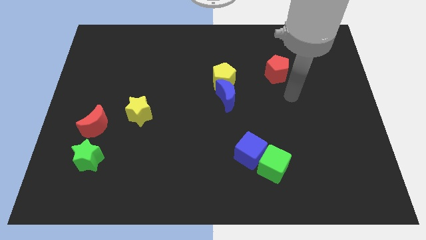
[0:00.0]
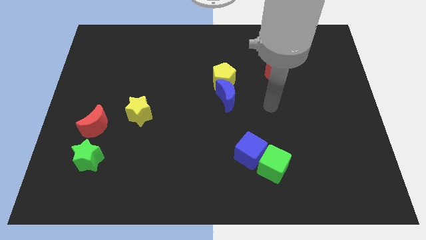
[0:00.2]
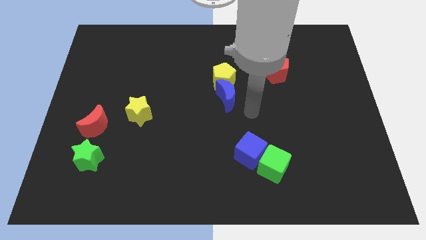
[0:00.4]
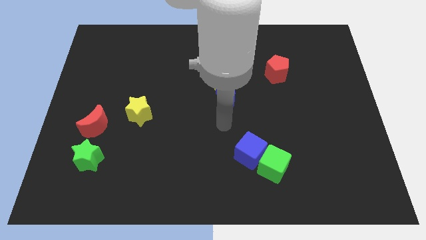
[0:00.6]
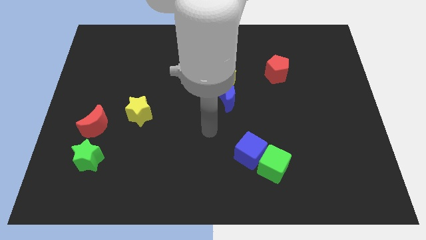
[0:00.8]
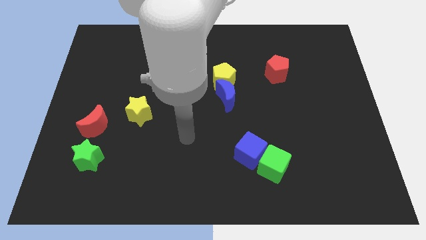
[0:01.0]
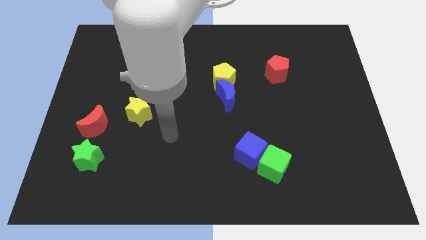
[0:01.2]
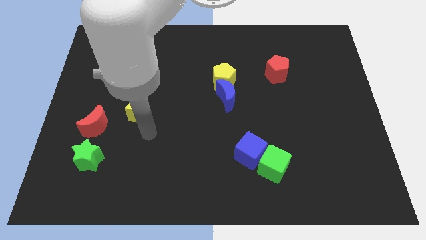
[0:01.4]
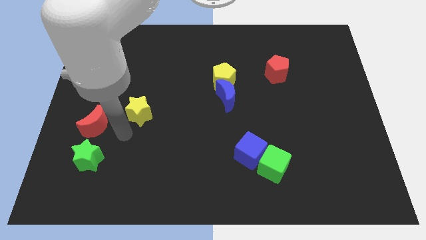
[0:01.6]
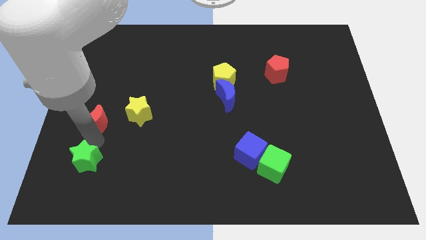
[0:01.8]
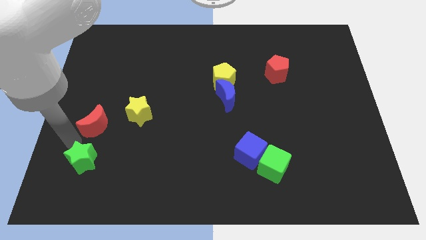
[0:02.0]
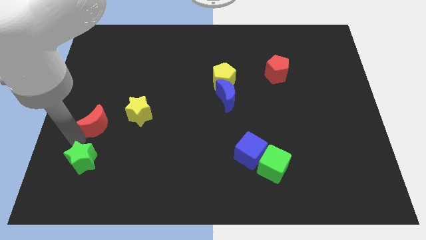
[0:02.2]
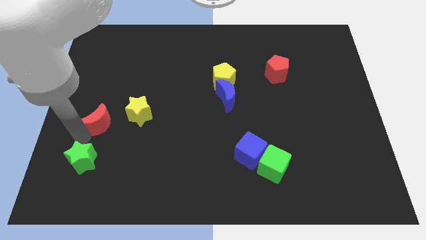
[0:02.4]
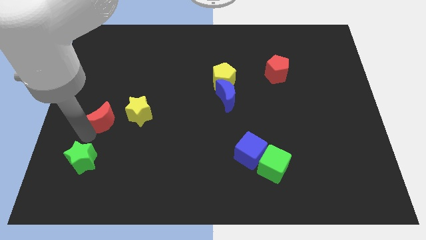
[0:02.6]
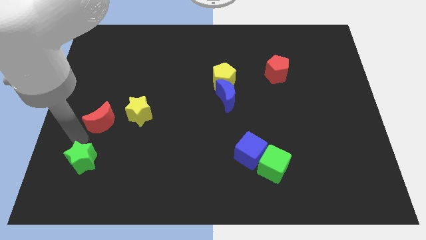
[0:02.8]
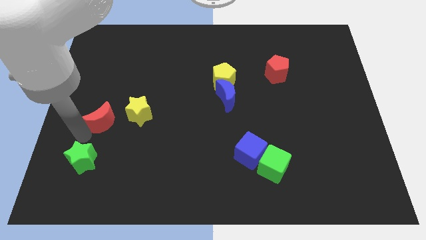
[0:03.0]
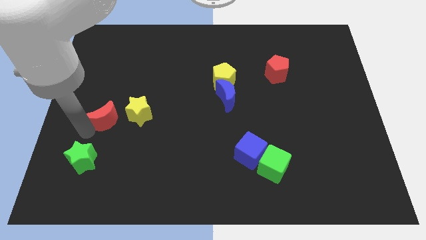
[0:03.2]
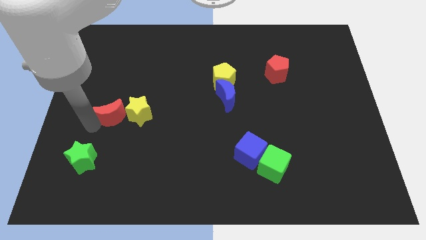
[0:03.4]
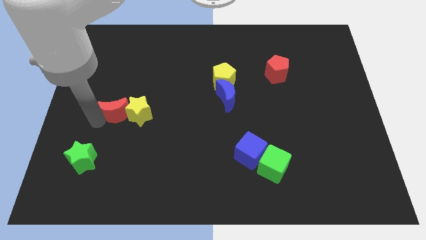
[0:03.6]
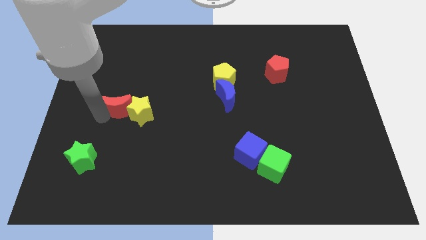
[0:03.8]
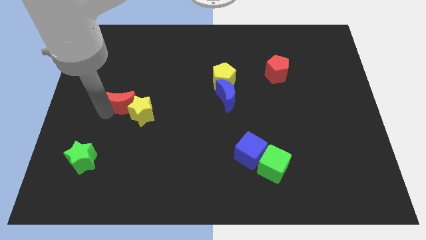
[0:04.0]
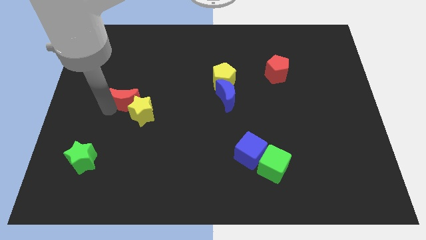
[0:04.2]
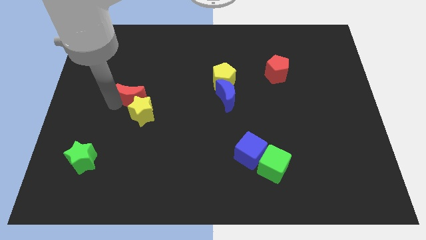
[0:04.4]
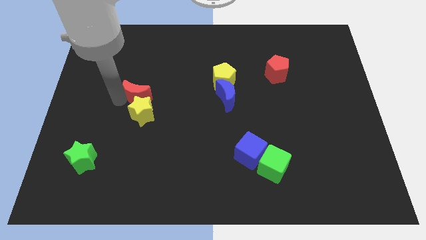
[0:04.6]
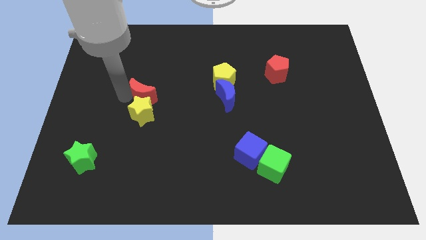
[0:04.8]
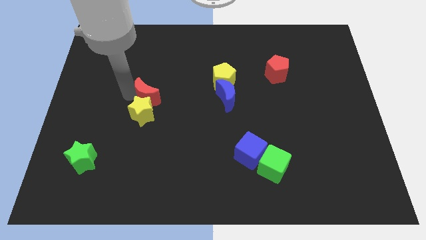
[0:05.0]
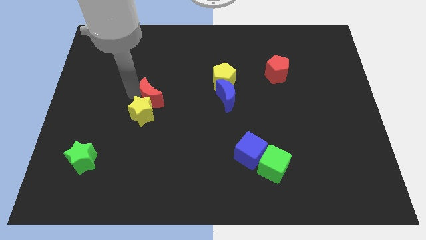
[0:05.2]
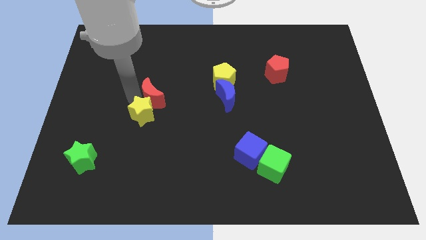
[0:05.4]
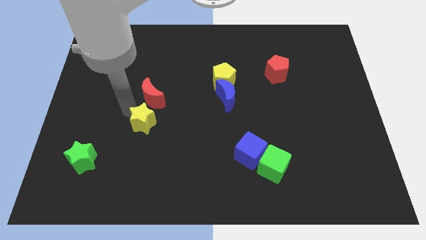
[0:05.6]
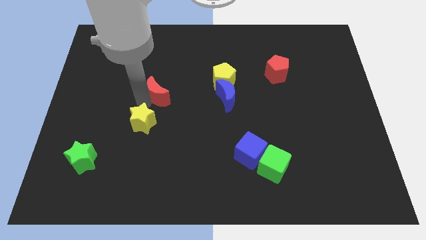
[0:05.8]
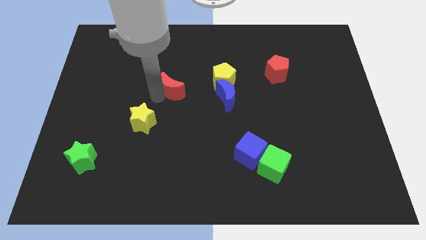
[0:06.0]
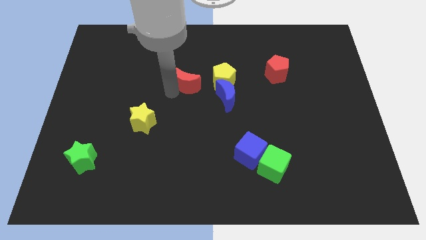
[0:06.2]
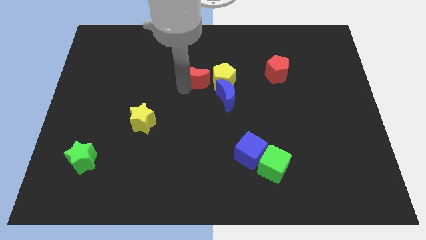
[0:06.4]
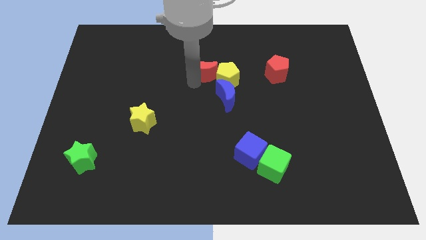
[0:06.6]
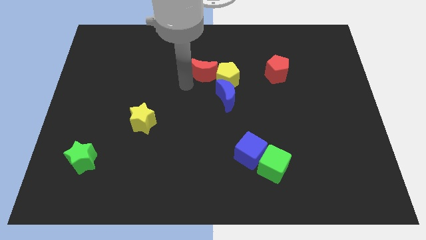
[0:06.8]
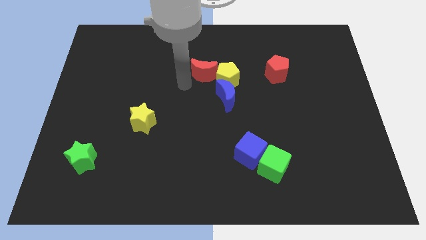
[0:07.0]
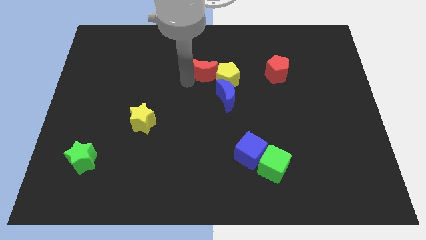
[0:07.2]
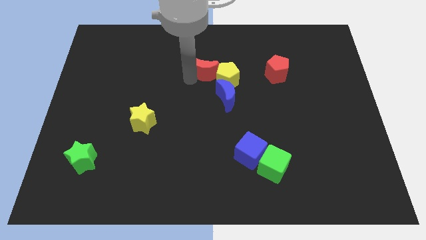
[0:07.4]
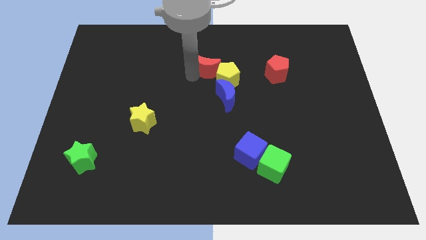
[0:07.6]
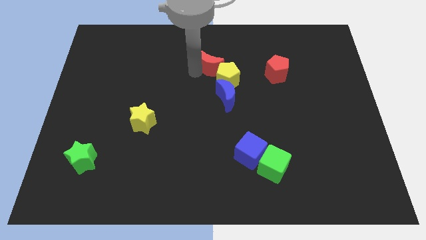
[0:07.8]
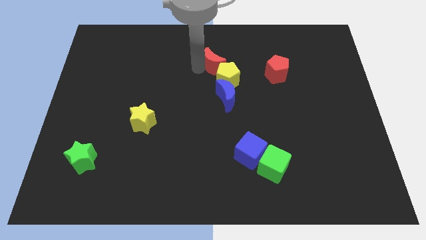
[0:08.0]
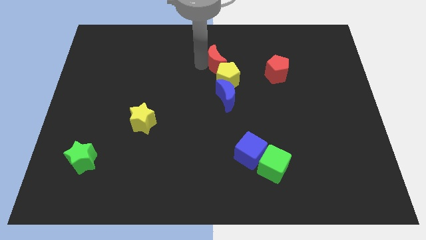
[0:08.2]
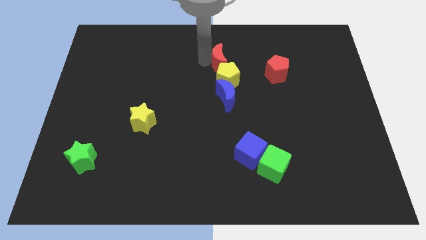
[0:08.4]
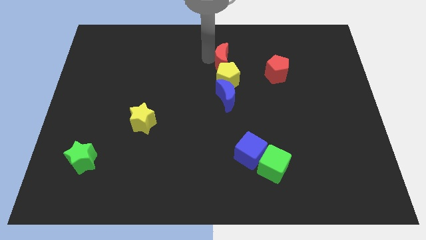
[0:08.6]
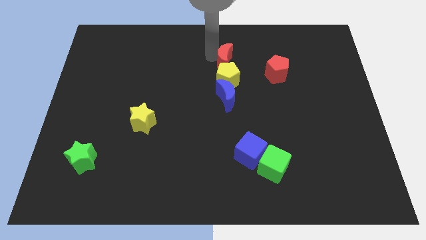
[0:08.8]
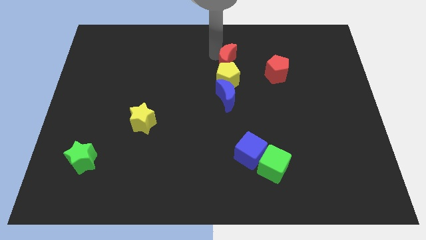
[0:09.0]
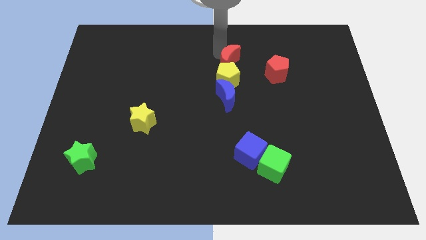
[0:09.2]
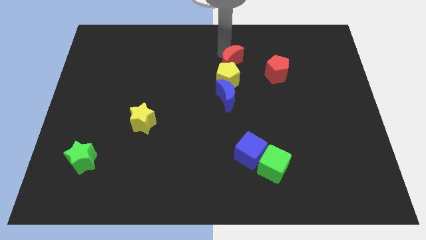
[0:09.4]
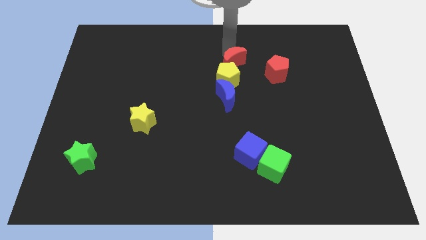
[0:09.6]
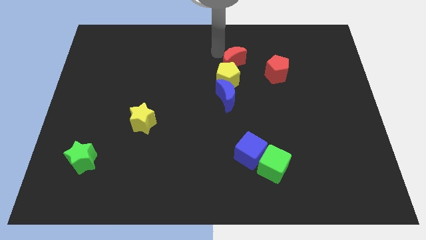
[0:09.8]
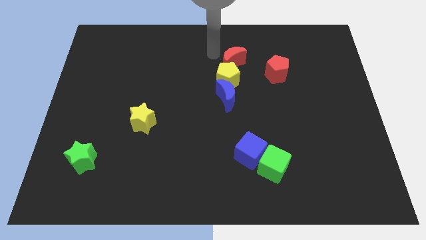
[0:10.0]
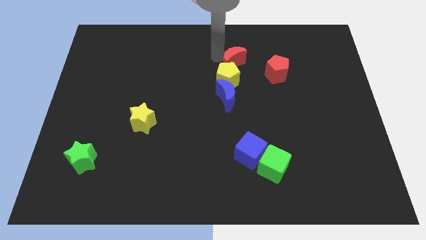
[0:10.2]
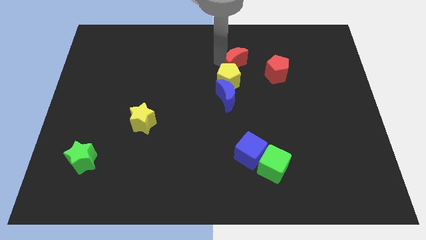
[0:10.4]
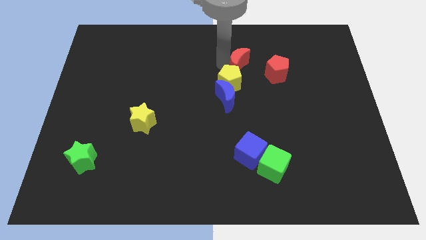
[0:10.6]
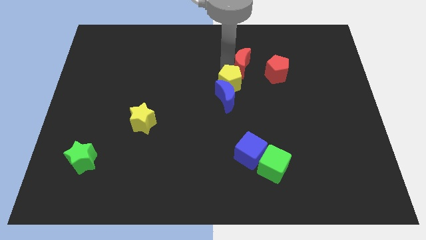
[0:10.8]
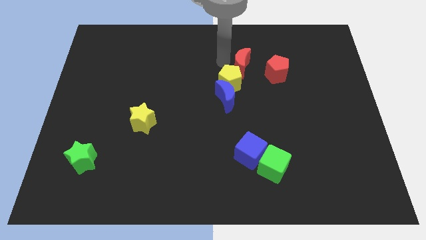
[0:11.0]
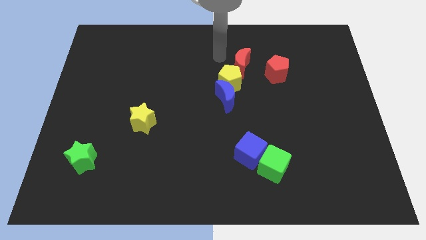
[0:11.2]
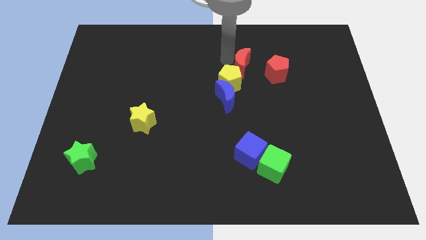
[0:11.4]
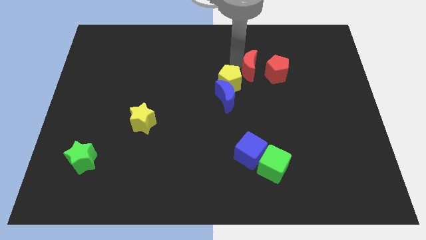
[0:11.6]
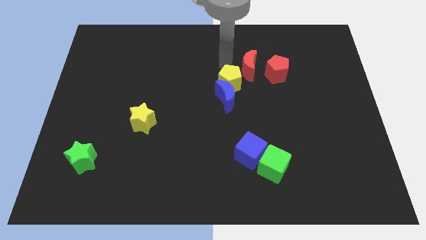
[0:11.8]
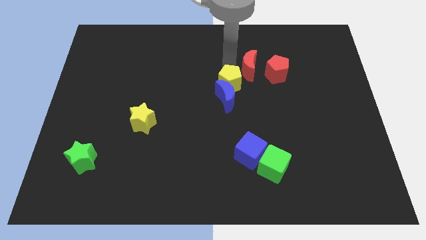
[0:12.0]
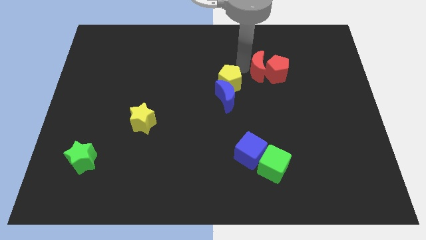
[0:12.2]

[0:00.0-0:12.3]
put the red moon towards the red pentagon
